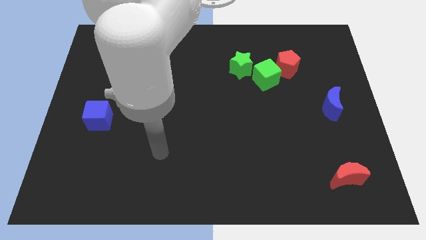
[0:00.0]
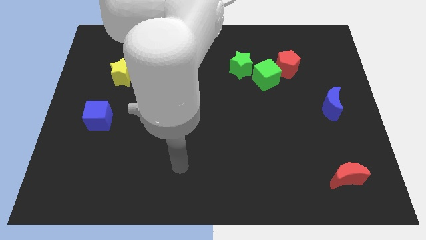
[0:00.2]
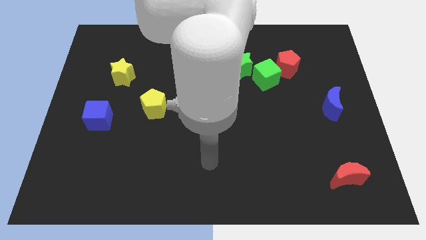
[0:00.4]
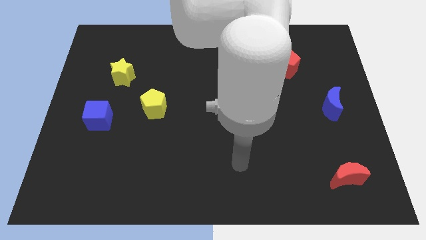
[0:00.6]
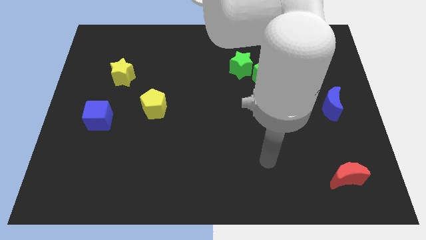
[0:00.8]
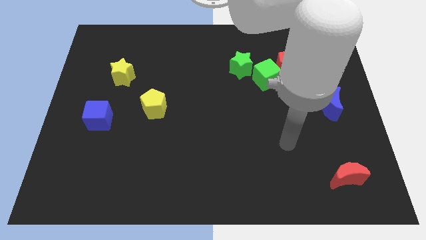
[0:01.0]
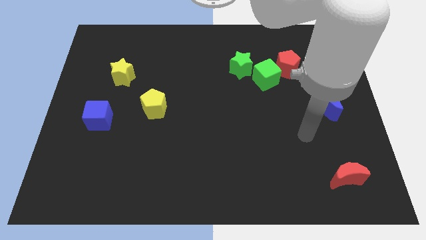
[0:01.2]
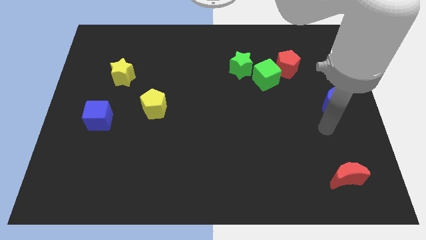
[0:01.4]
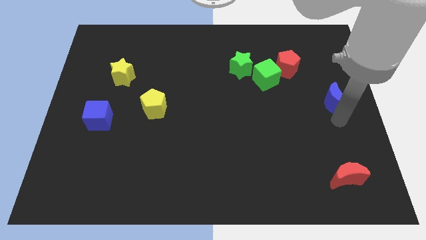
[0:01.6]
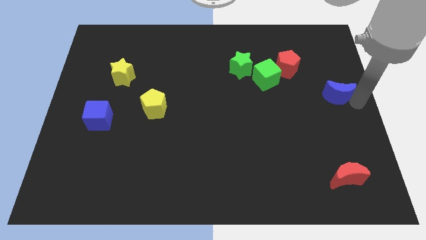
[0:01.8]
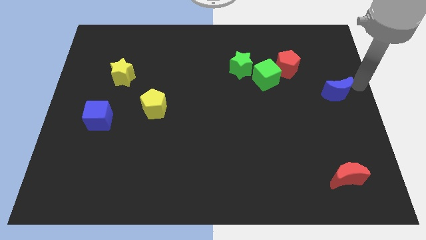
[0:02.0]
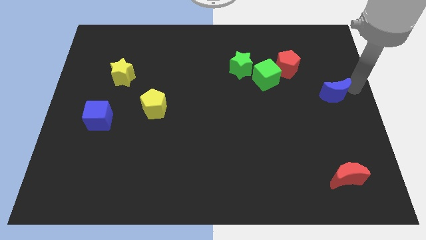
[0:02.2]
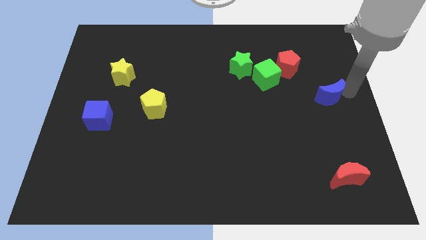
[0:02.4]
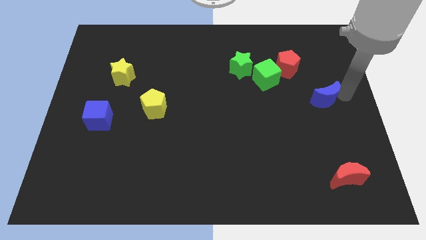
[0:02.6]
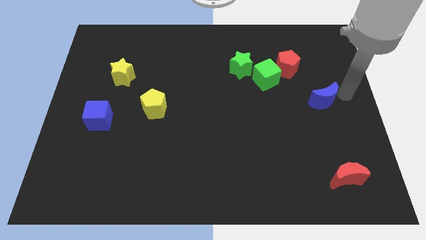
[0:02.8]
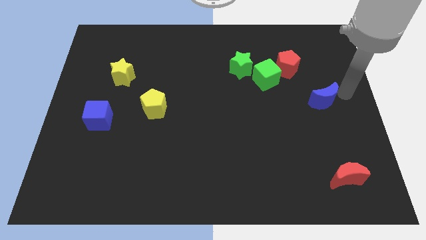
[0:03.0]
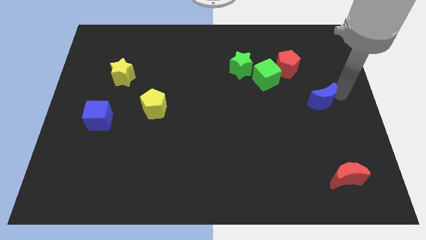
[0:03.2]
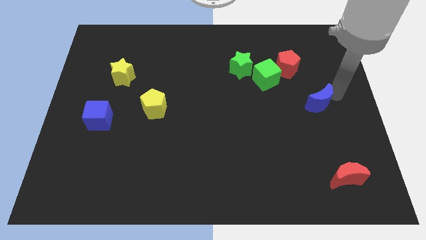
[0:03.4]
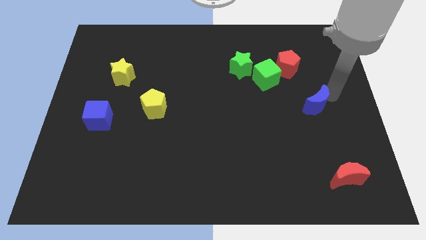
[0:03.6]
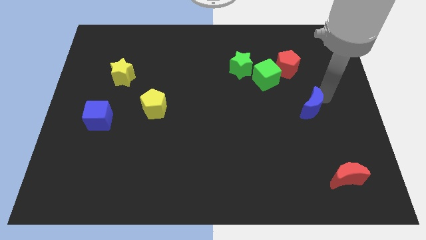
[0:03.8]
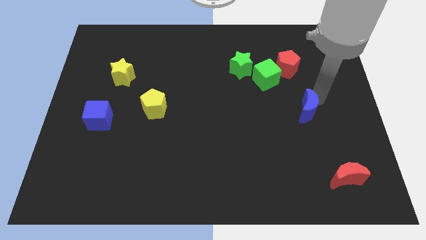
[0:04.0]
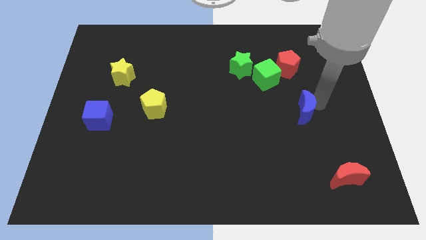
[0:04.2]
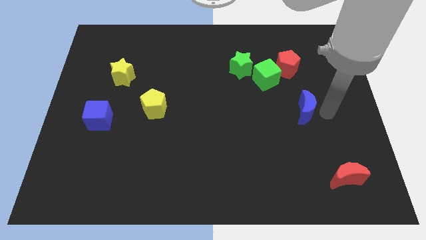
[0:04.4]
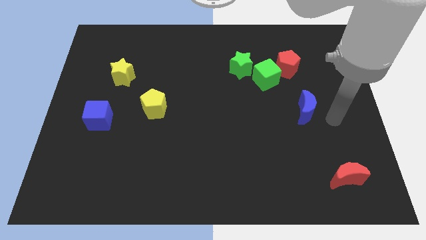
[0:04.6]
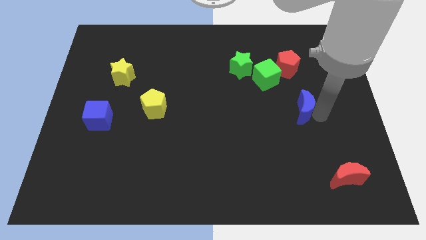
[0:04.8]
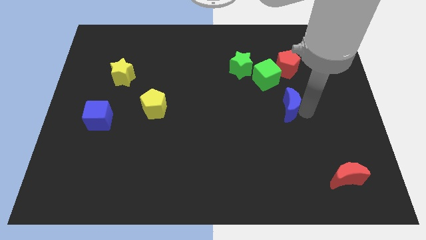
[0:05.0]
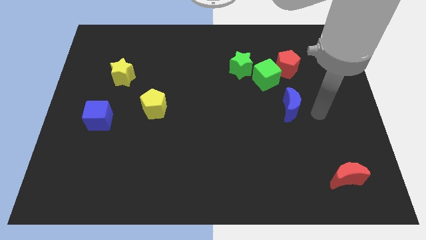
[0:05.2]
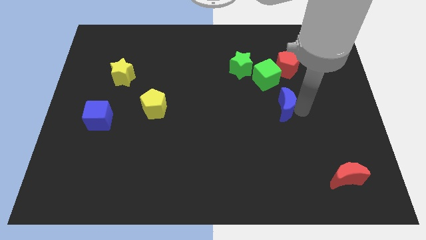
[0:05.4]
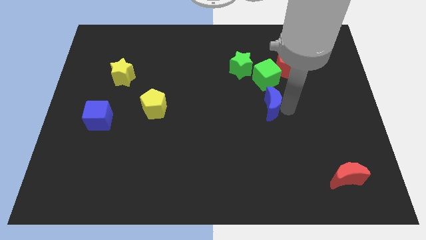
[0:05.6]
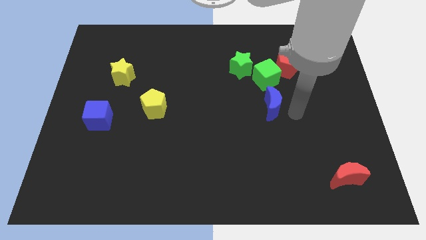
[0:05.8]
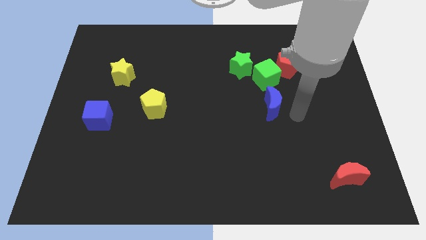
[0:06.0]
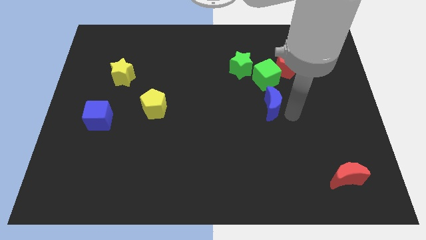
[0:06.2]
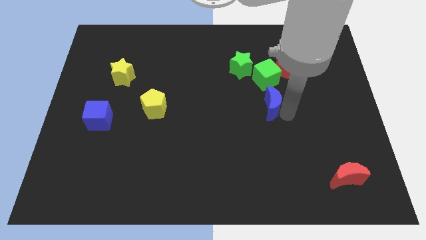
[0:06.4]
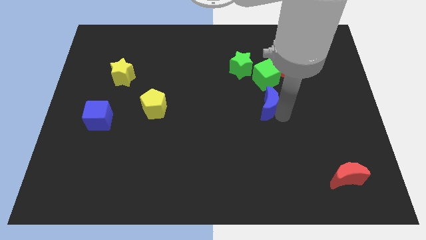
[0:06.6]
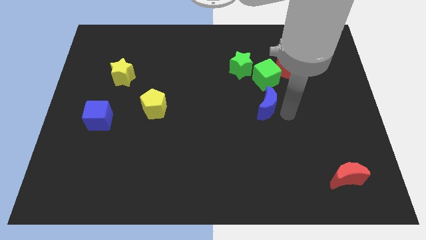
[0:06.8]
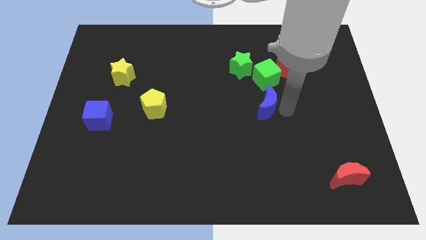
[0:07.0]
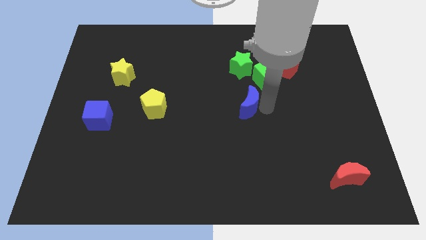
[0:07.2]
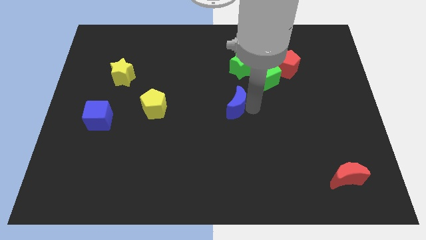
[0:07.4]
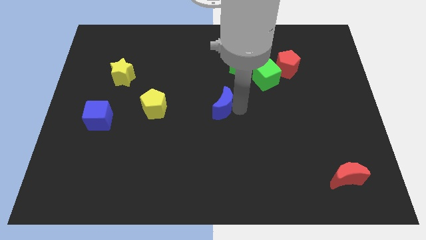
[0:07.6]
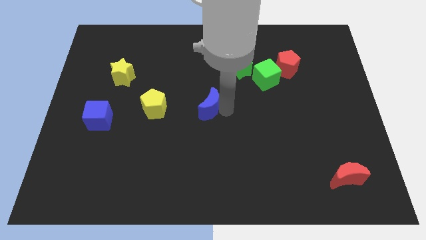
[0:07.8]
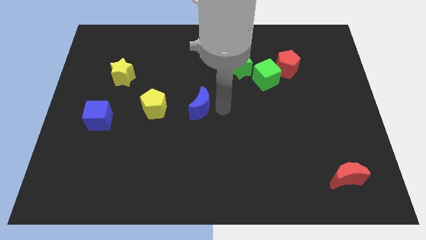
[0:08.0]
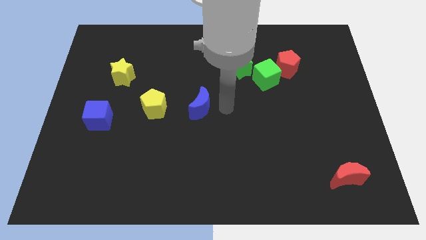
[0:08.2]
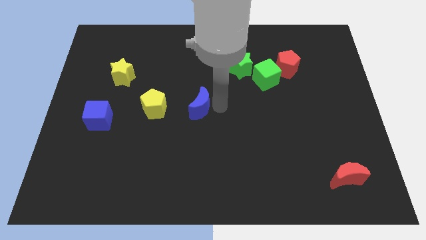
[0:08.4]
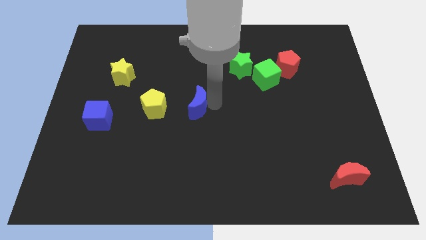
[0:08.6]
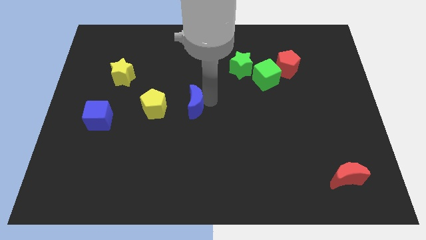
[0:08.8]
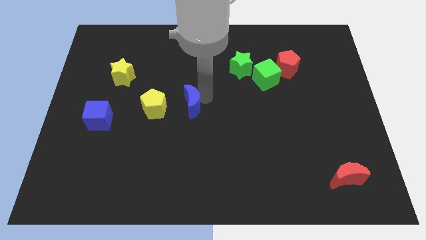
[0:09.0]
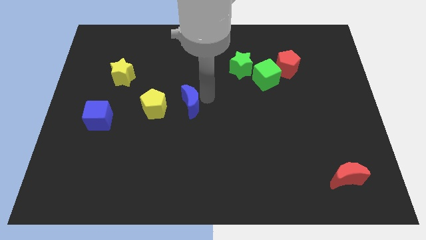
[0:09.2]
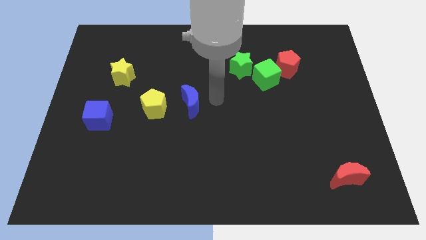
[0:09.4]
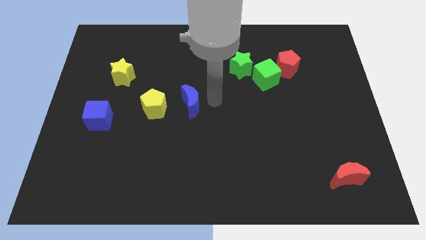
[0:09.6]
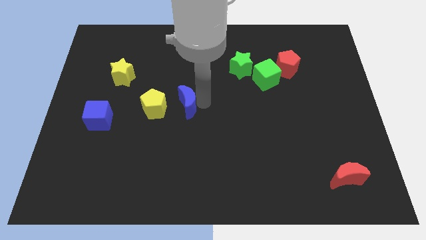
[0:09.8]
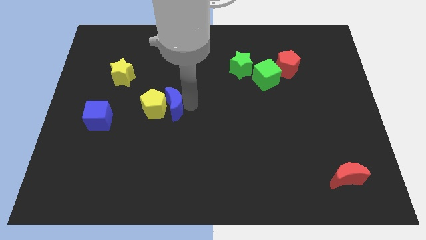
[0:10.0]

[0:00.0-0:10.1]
slide the blue moon towards the yellow pentagon

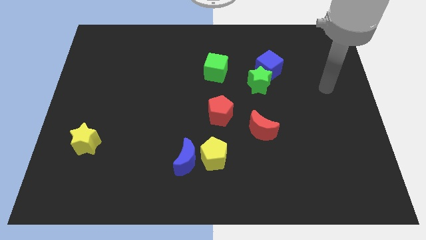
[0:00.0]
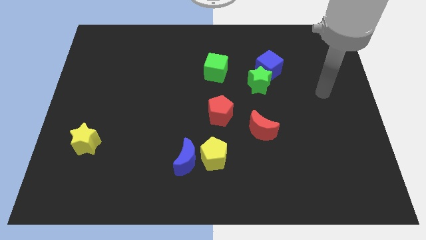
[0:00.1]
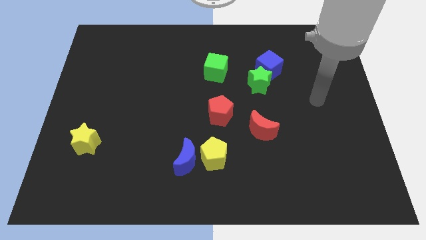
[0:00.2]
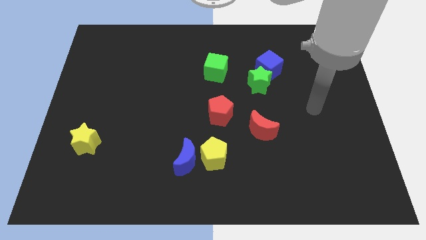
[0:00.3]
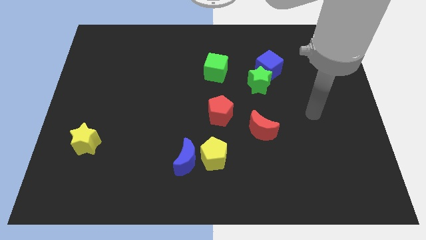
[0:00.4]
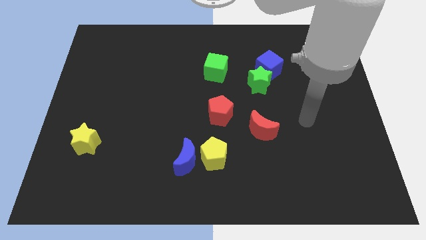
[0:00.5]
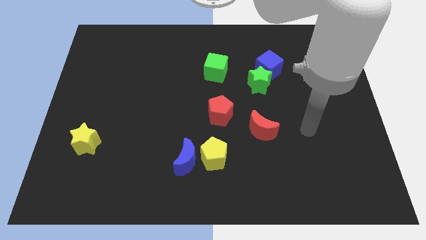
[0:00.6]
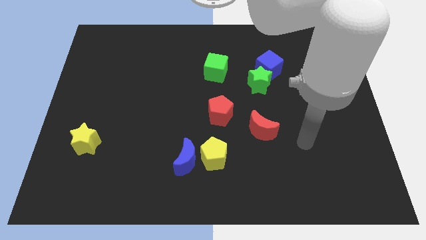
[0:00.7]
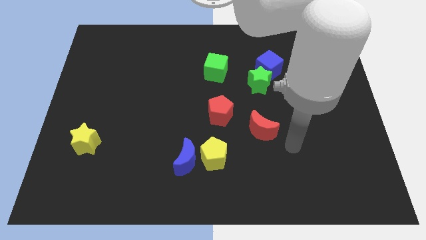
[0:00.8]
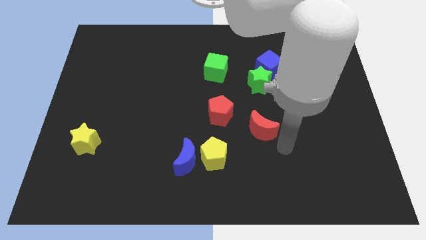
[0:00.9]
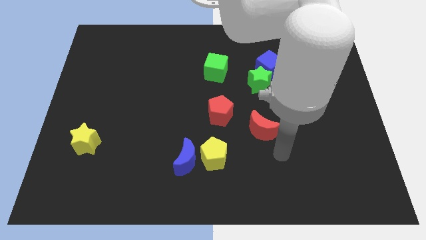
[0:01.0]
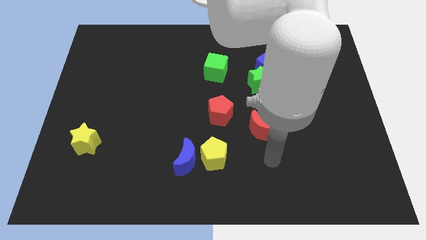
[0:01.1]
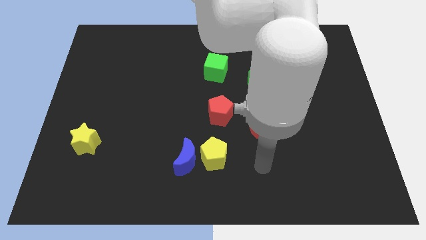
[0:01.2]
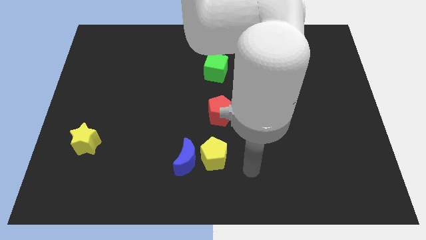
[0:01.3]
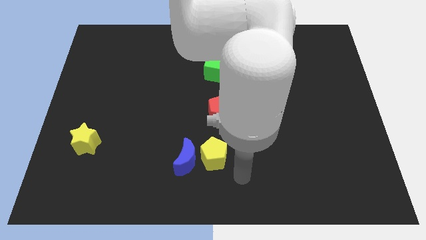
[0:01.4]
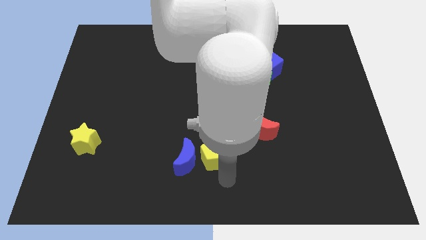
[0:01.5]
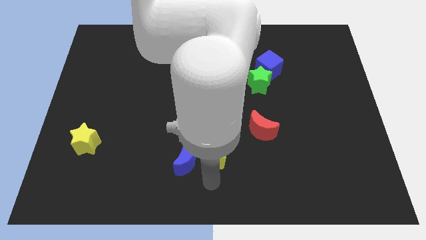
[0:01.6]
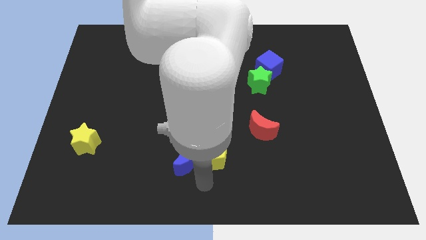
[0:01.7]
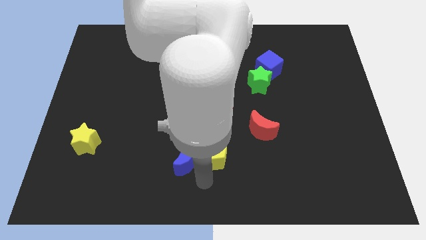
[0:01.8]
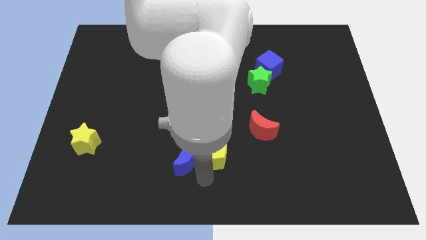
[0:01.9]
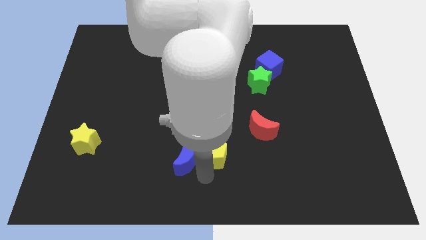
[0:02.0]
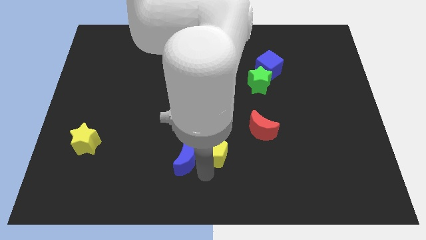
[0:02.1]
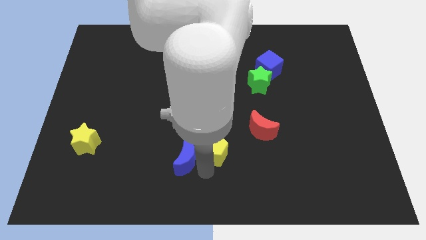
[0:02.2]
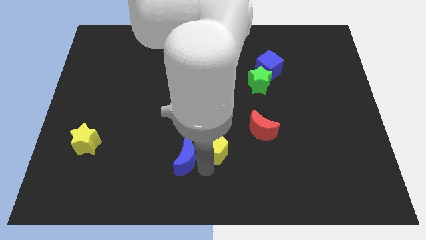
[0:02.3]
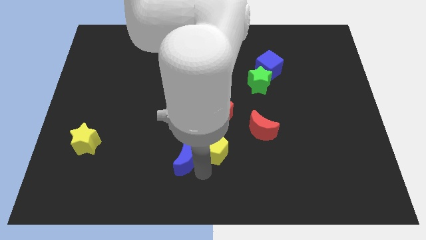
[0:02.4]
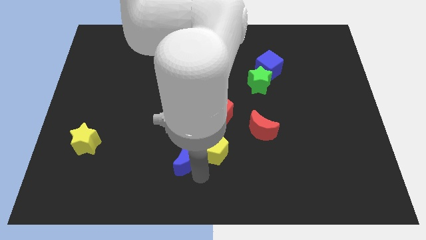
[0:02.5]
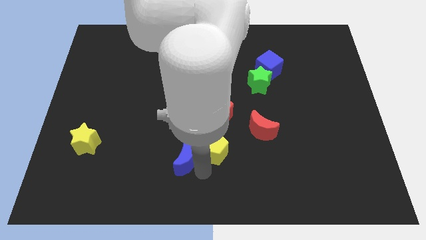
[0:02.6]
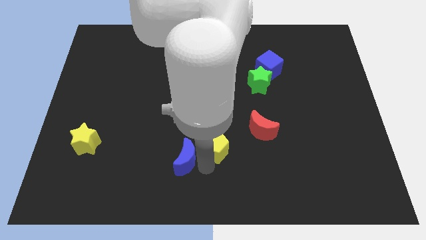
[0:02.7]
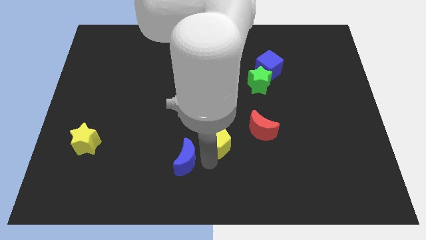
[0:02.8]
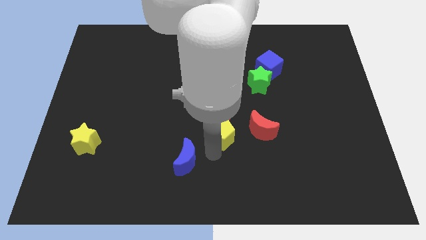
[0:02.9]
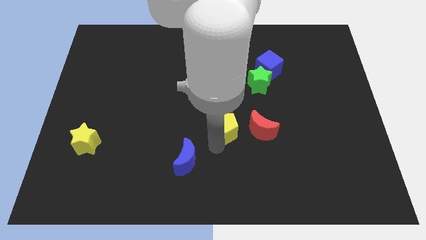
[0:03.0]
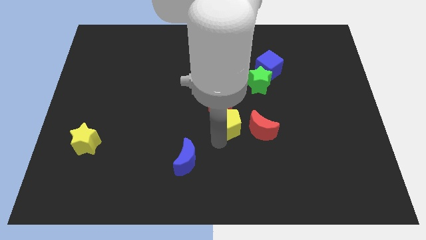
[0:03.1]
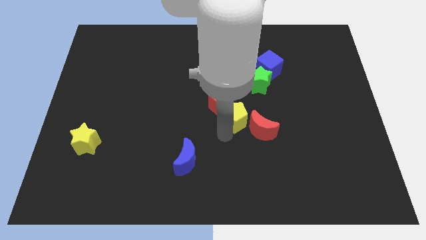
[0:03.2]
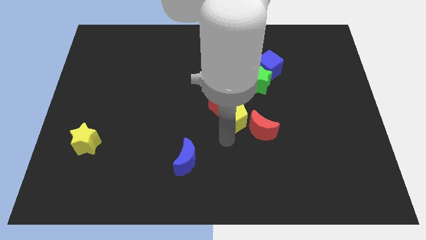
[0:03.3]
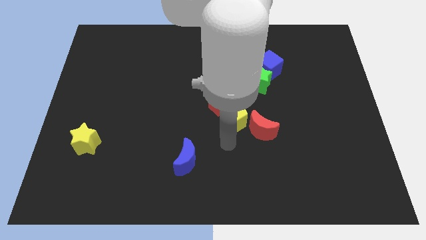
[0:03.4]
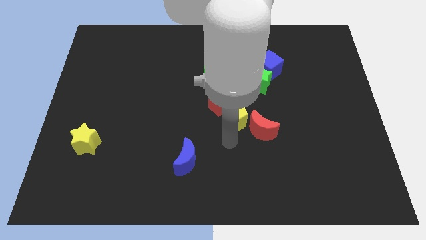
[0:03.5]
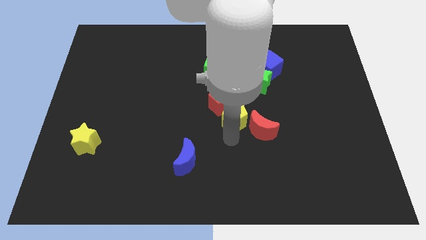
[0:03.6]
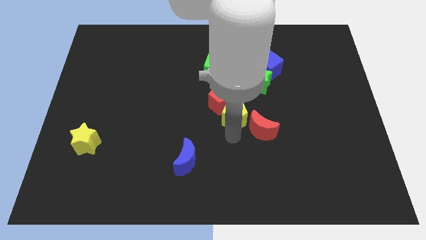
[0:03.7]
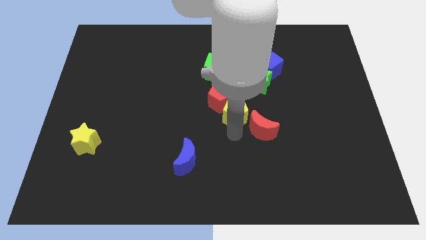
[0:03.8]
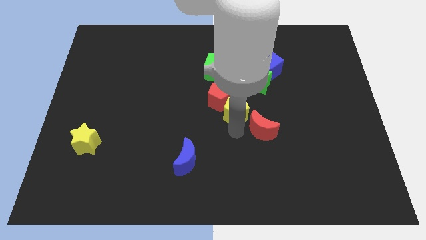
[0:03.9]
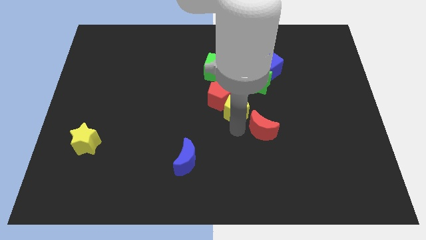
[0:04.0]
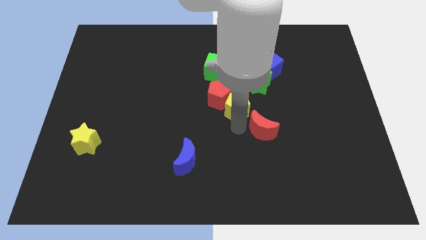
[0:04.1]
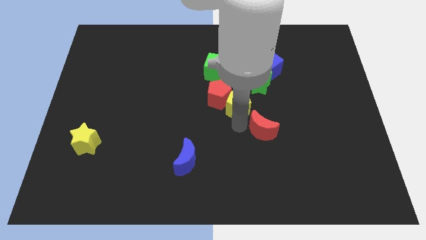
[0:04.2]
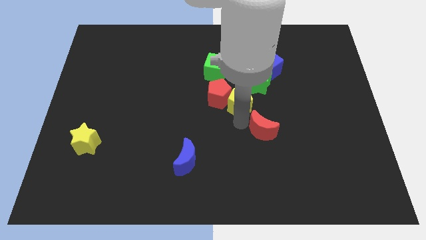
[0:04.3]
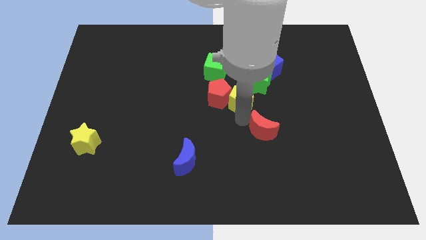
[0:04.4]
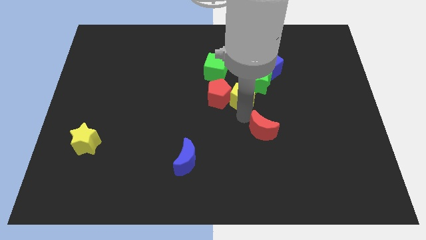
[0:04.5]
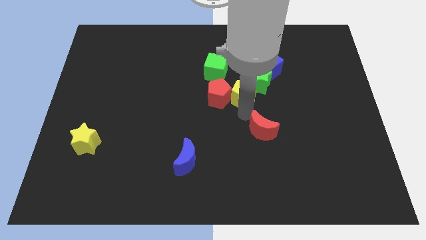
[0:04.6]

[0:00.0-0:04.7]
slide the yellow pentagon next to the green star
